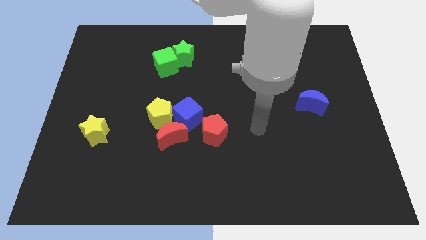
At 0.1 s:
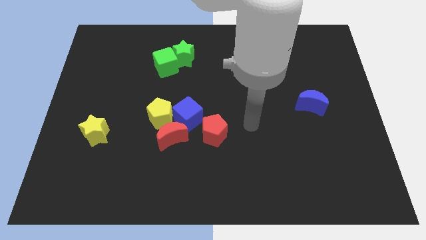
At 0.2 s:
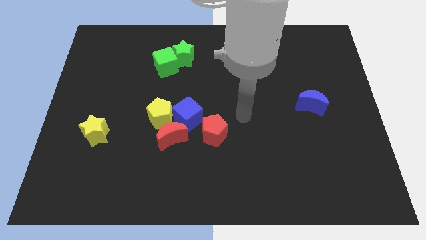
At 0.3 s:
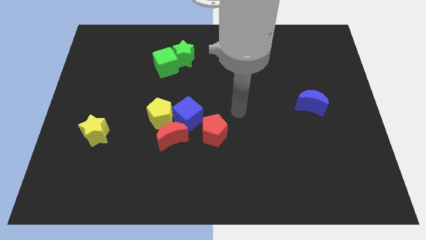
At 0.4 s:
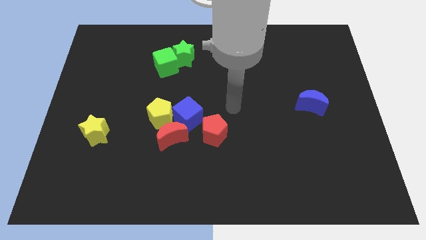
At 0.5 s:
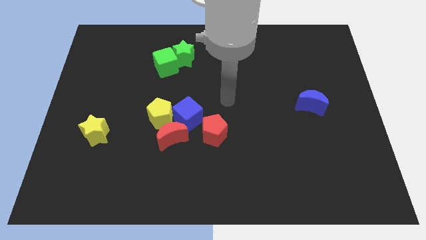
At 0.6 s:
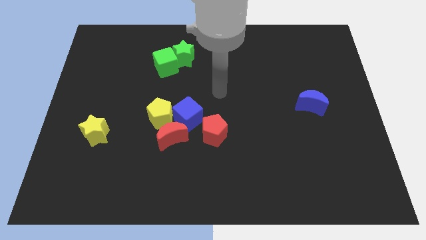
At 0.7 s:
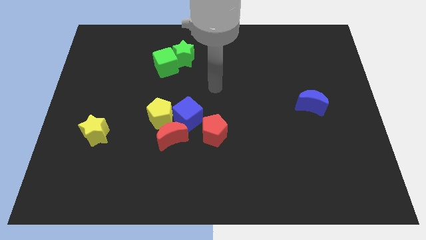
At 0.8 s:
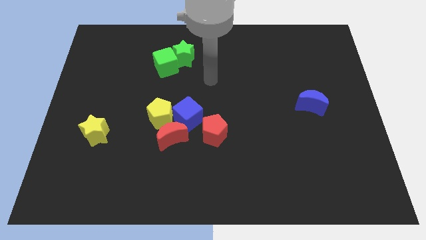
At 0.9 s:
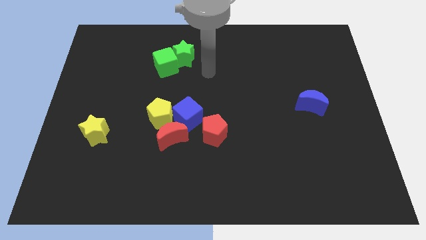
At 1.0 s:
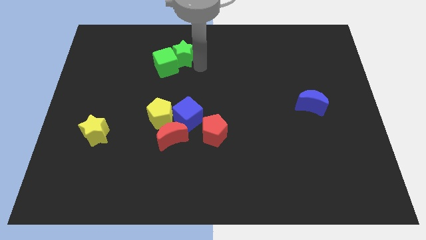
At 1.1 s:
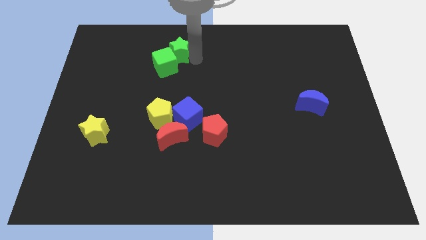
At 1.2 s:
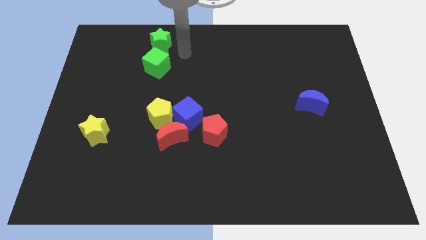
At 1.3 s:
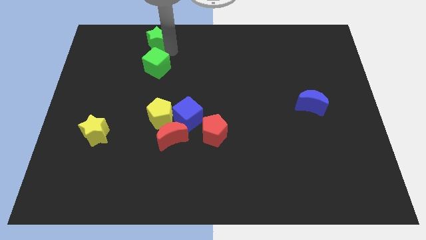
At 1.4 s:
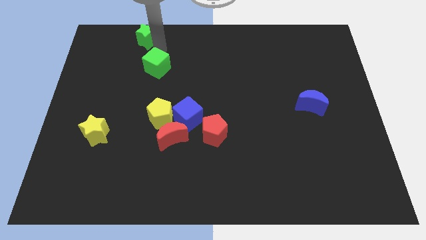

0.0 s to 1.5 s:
separate the green cube from the green star

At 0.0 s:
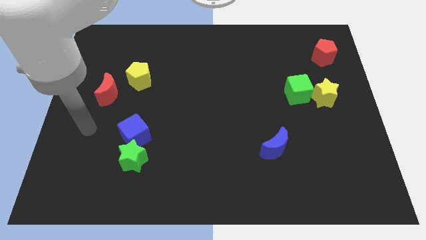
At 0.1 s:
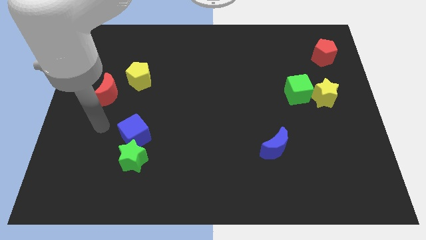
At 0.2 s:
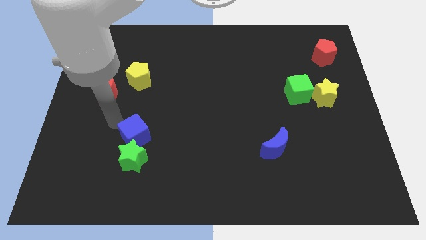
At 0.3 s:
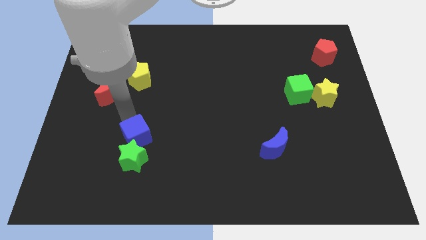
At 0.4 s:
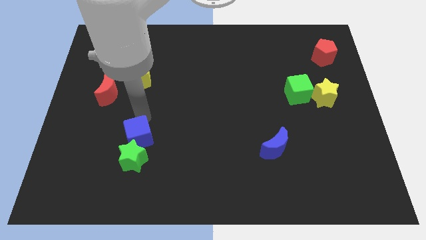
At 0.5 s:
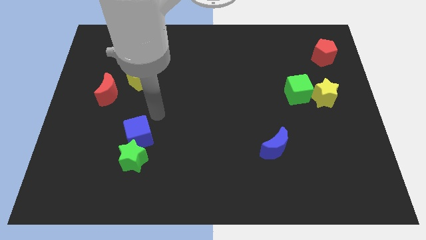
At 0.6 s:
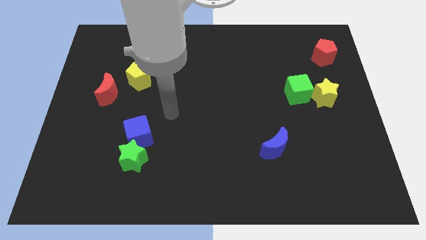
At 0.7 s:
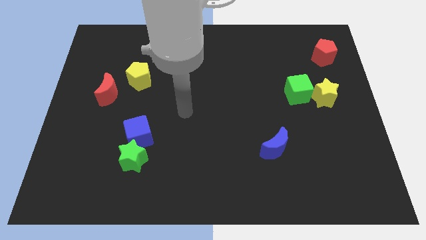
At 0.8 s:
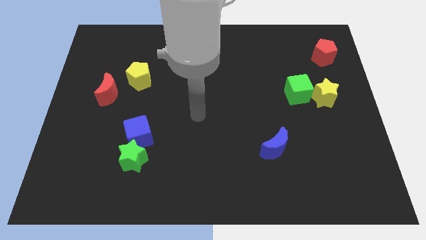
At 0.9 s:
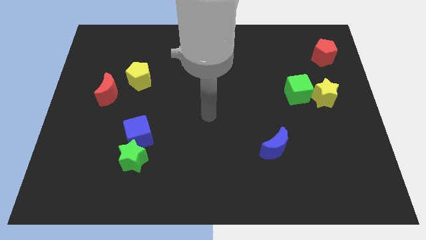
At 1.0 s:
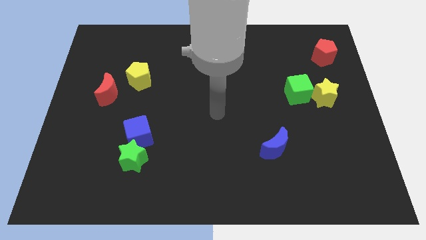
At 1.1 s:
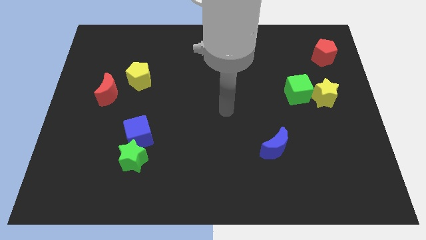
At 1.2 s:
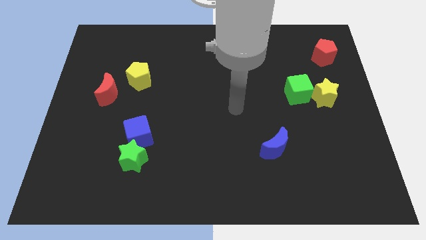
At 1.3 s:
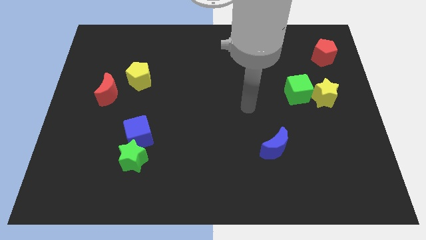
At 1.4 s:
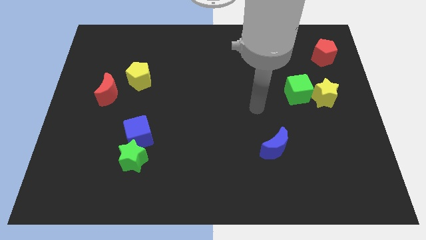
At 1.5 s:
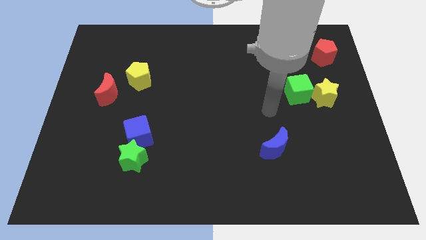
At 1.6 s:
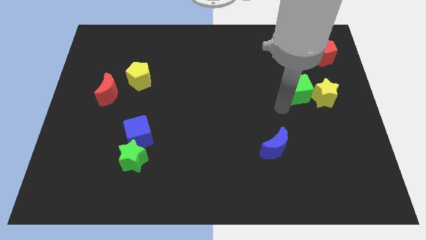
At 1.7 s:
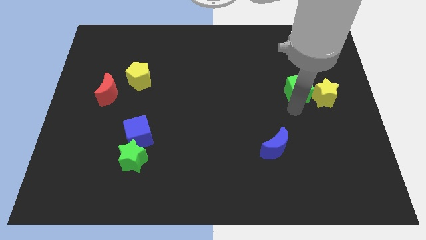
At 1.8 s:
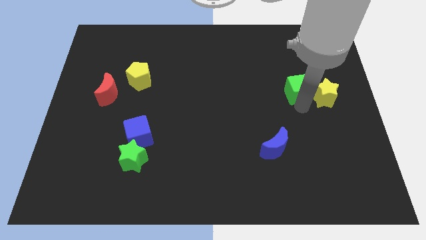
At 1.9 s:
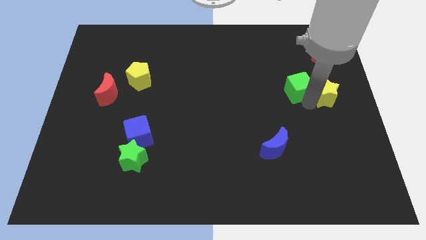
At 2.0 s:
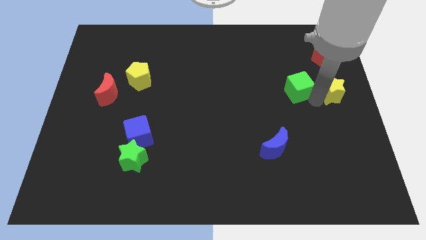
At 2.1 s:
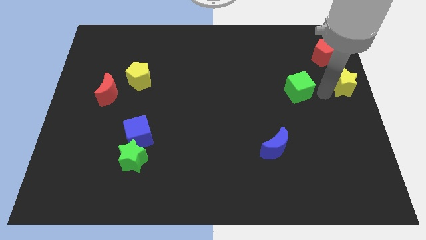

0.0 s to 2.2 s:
move the green cube away from the yellow star

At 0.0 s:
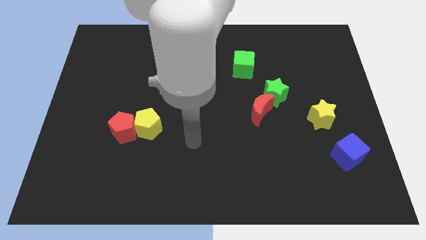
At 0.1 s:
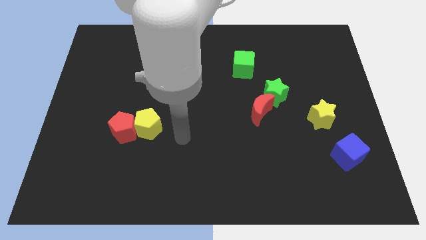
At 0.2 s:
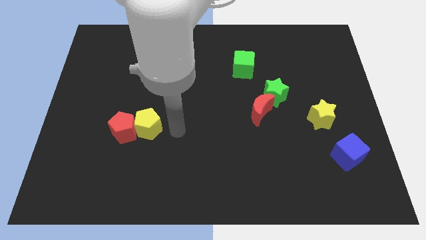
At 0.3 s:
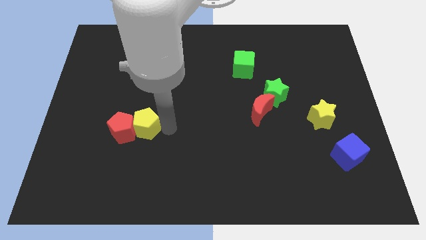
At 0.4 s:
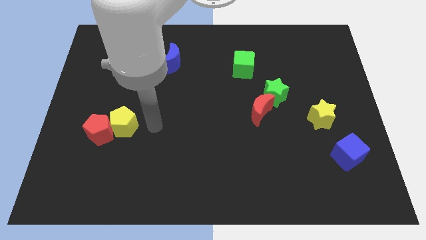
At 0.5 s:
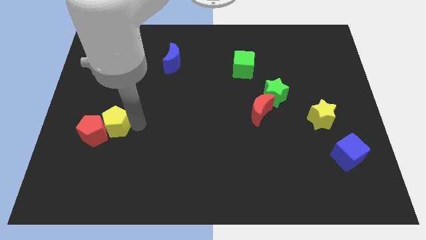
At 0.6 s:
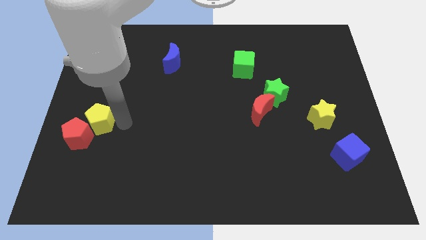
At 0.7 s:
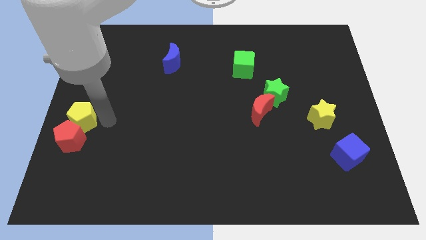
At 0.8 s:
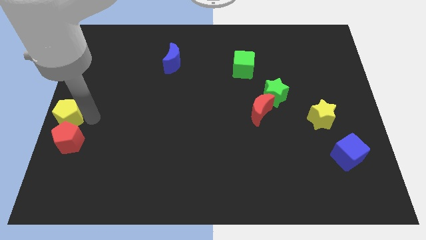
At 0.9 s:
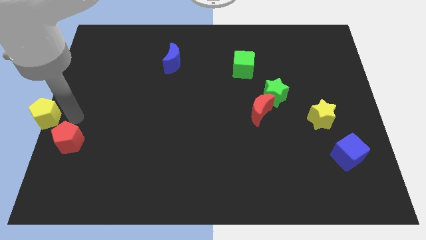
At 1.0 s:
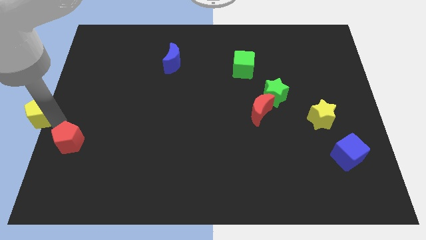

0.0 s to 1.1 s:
separate the red pentagon from the yellow pentagon

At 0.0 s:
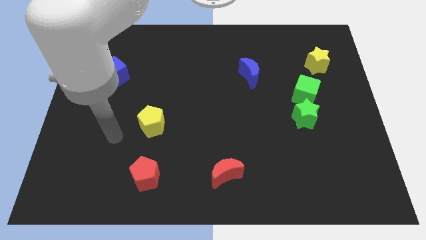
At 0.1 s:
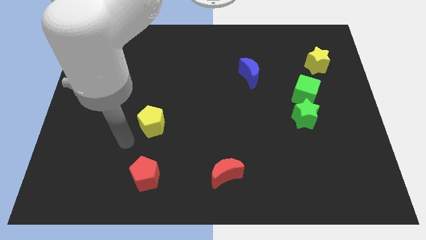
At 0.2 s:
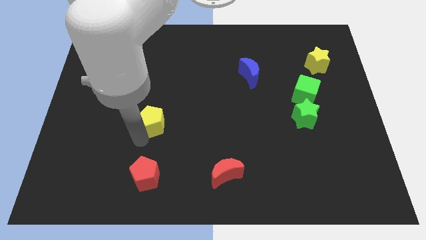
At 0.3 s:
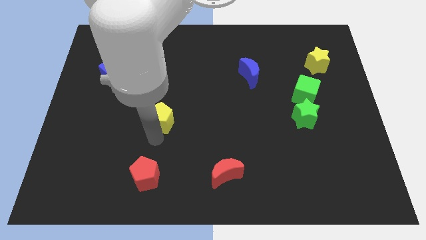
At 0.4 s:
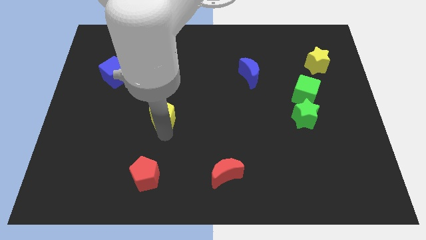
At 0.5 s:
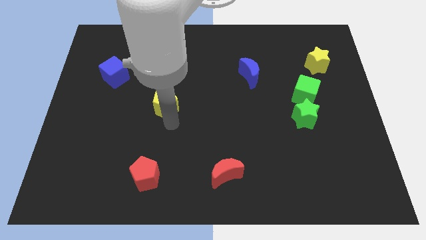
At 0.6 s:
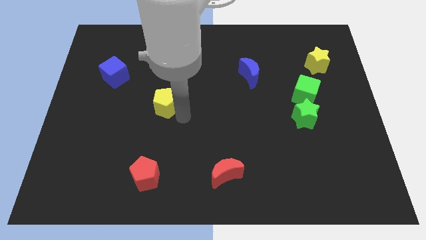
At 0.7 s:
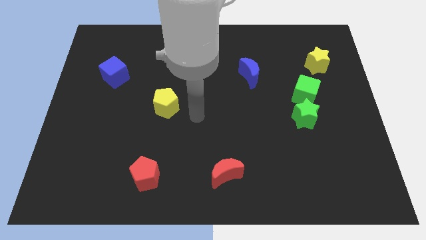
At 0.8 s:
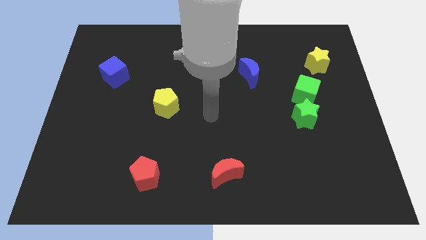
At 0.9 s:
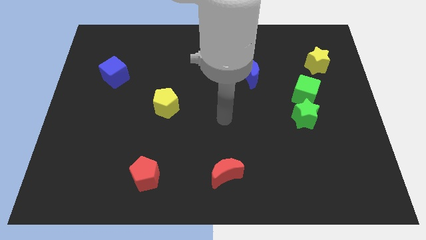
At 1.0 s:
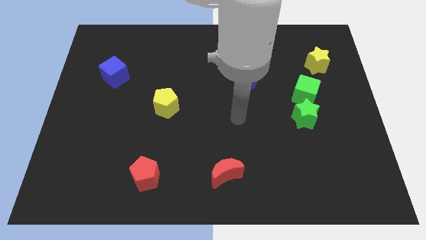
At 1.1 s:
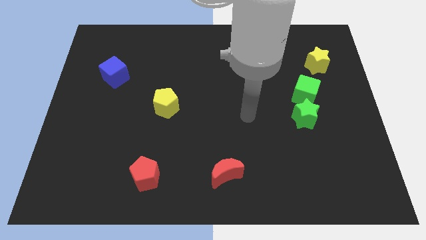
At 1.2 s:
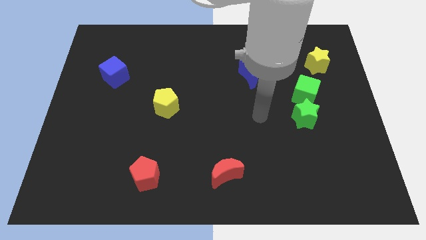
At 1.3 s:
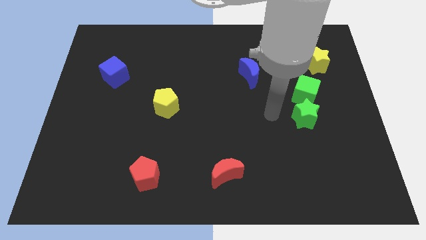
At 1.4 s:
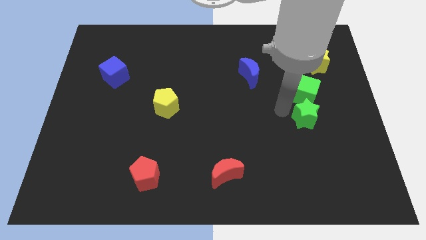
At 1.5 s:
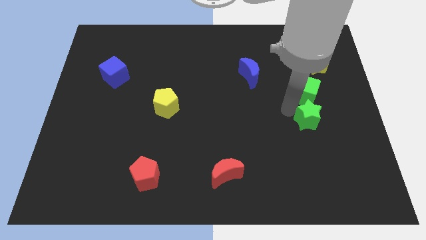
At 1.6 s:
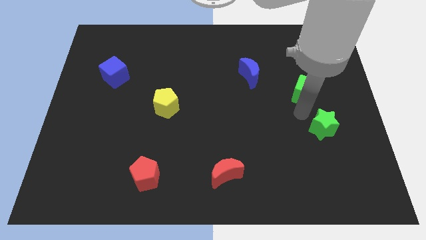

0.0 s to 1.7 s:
pull the green cube apart from the green star

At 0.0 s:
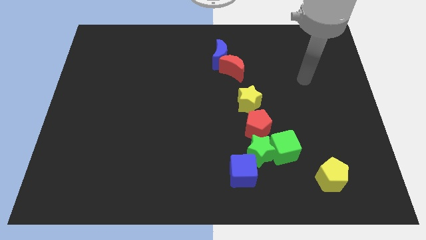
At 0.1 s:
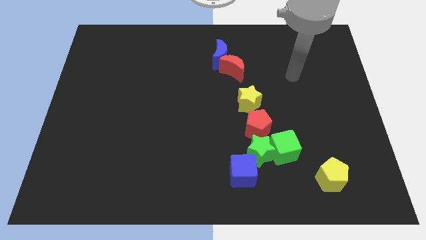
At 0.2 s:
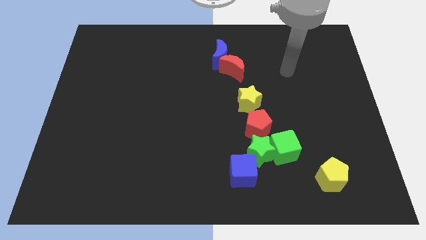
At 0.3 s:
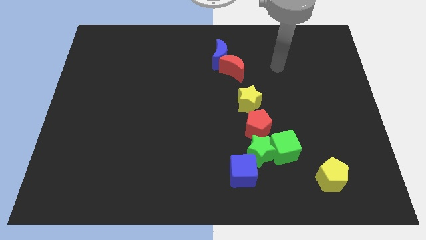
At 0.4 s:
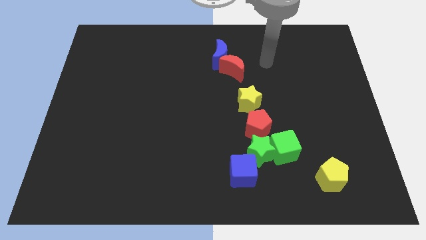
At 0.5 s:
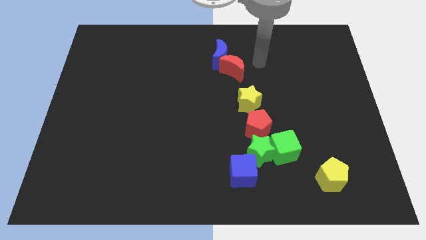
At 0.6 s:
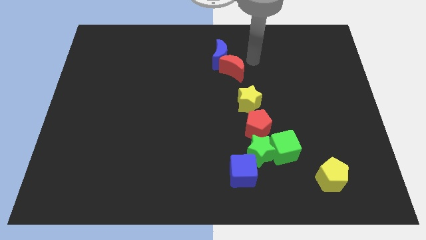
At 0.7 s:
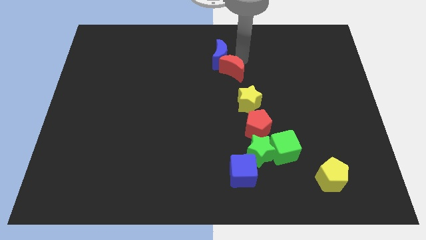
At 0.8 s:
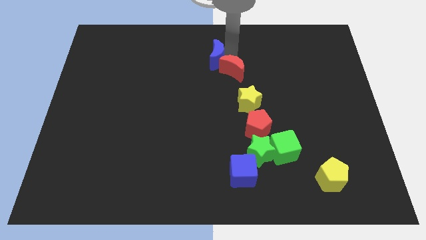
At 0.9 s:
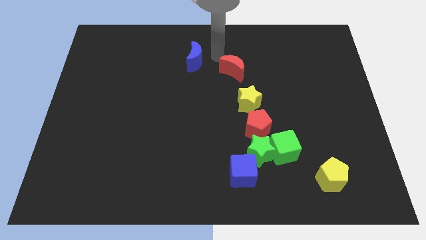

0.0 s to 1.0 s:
move the red moon away from the blue moon

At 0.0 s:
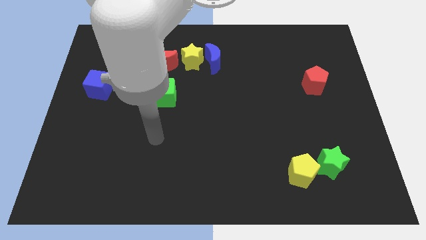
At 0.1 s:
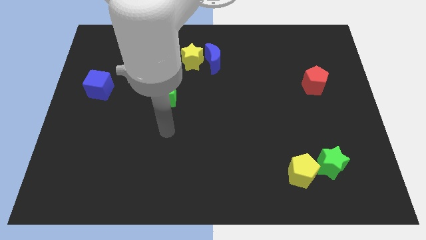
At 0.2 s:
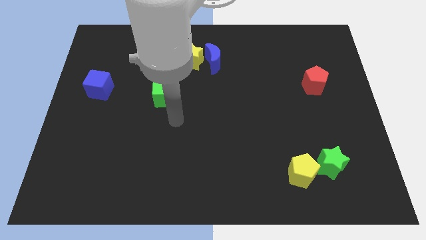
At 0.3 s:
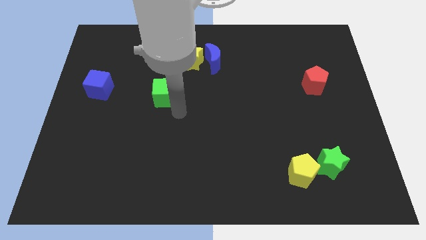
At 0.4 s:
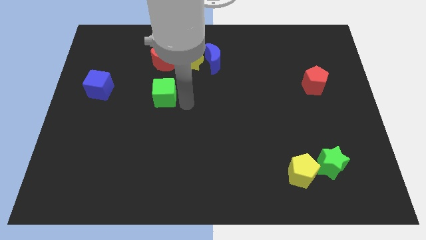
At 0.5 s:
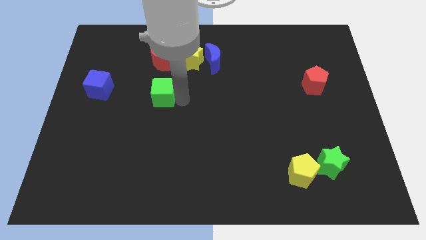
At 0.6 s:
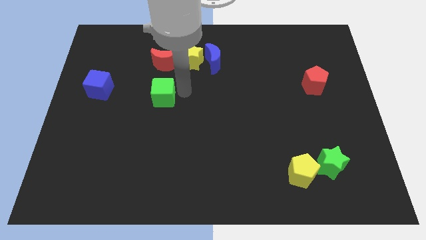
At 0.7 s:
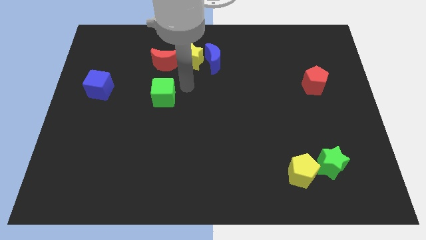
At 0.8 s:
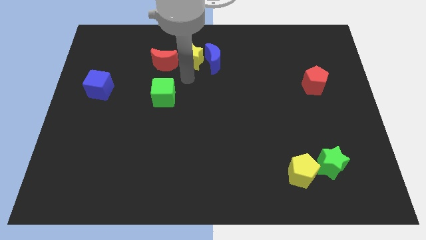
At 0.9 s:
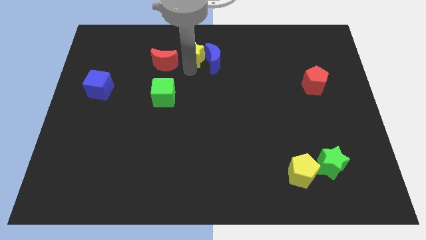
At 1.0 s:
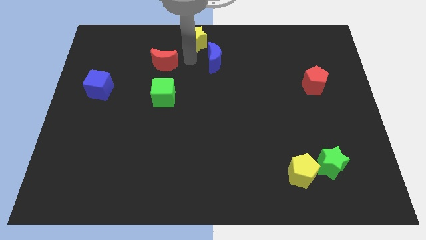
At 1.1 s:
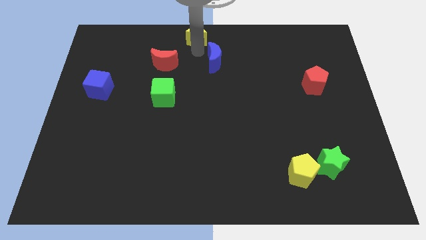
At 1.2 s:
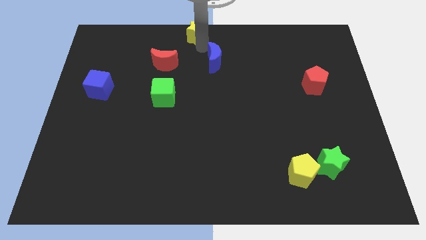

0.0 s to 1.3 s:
pull the blue moon apart from the yellow star

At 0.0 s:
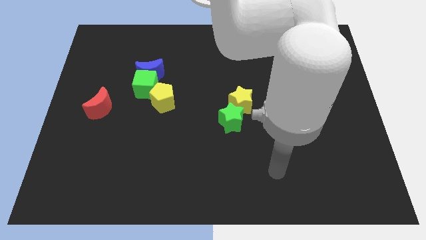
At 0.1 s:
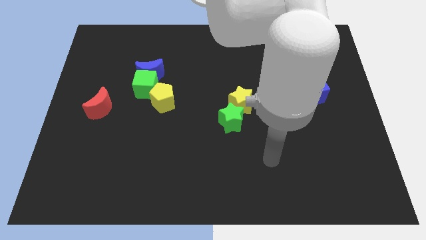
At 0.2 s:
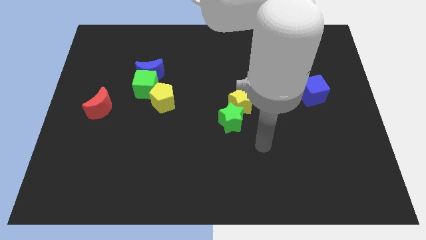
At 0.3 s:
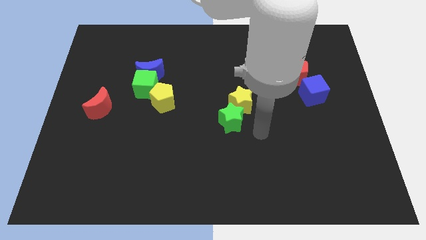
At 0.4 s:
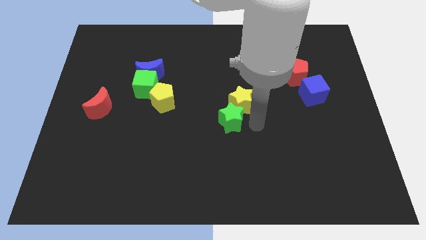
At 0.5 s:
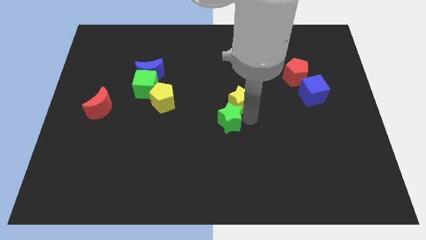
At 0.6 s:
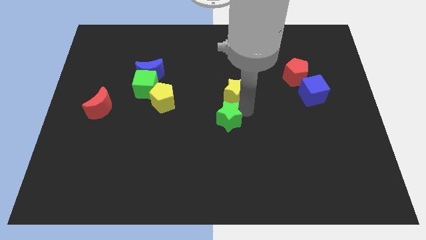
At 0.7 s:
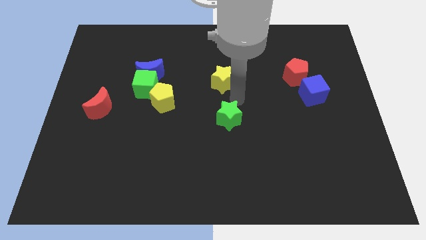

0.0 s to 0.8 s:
move the green star away from the yellow star
